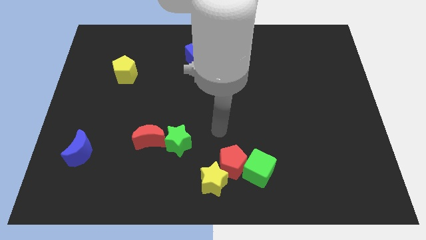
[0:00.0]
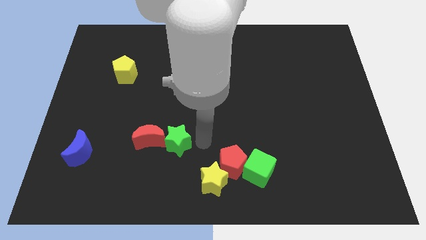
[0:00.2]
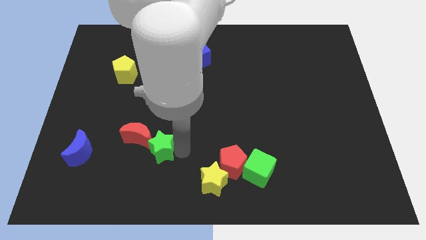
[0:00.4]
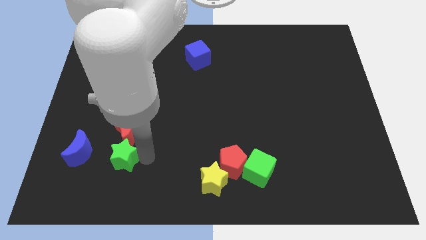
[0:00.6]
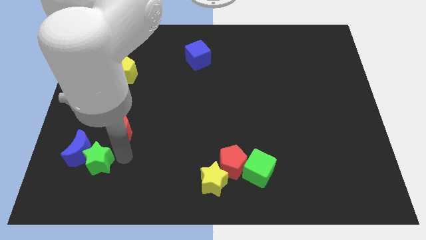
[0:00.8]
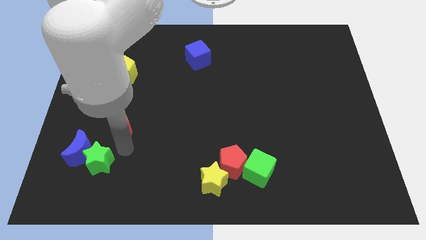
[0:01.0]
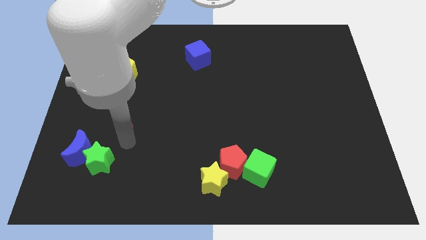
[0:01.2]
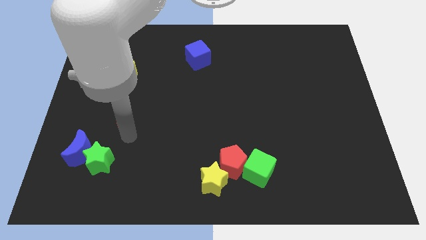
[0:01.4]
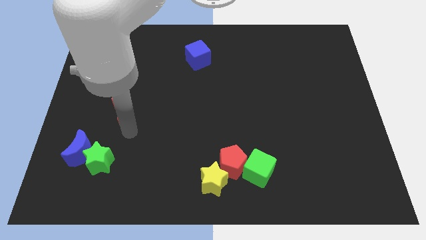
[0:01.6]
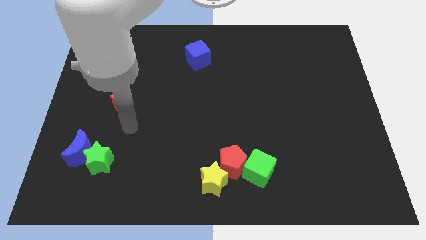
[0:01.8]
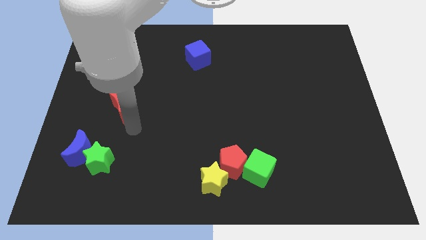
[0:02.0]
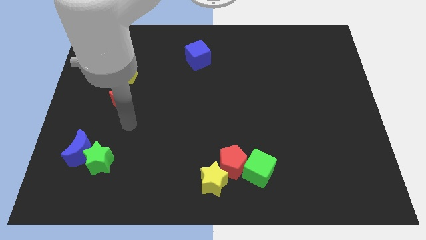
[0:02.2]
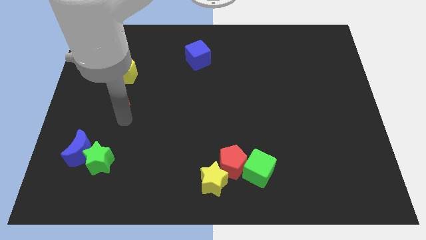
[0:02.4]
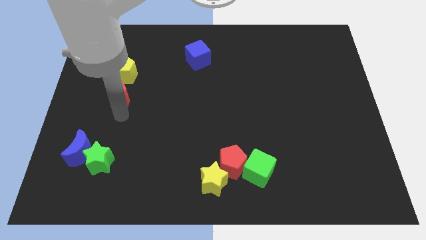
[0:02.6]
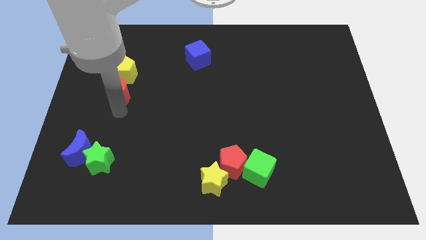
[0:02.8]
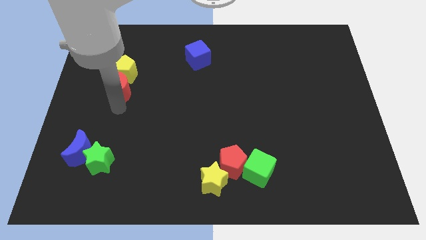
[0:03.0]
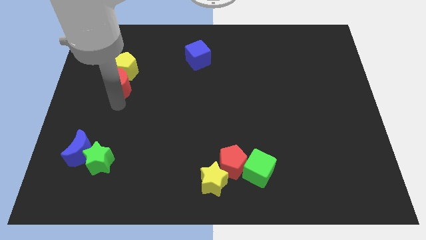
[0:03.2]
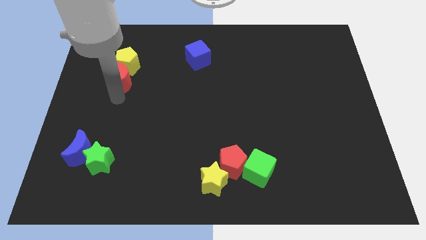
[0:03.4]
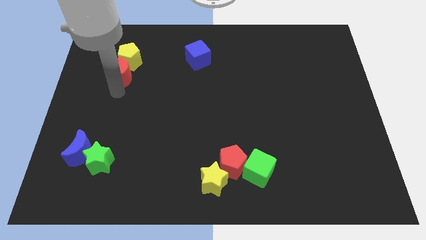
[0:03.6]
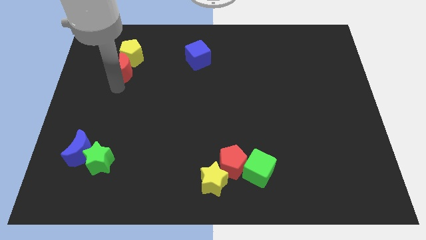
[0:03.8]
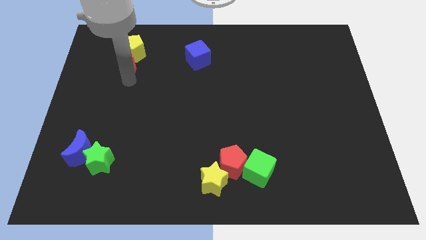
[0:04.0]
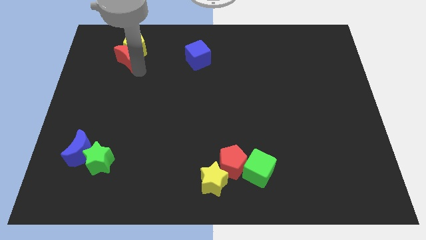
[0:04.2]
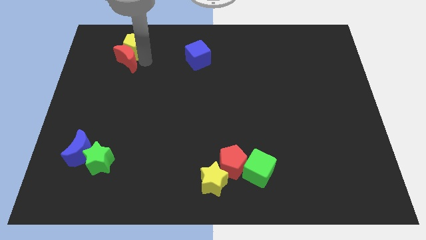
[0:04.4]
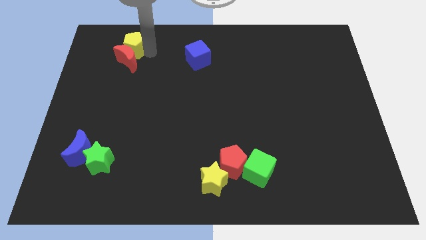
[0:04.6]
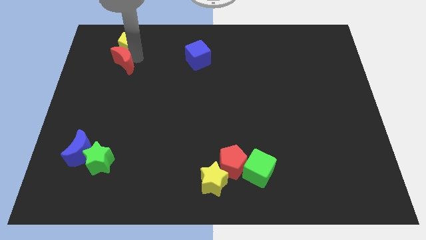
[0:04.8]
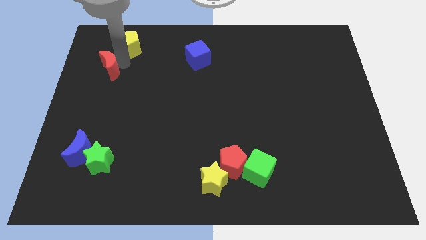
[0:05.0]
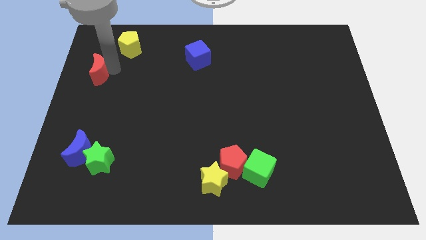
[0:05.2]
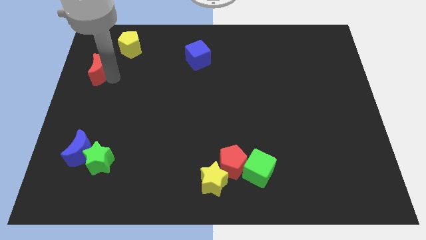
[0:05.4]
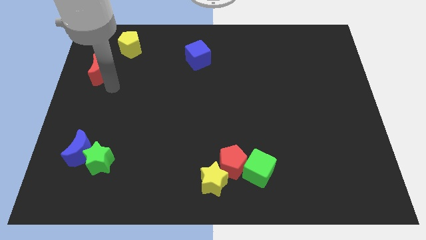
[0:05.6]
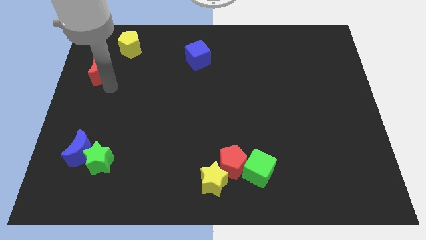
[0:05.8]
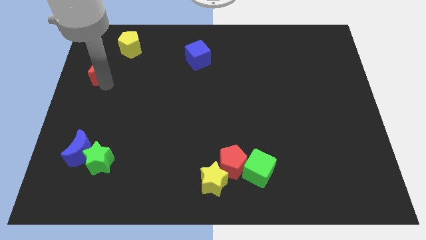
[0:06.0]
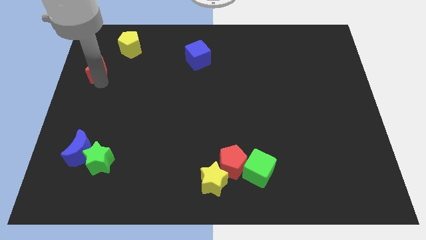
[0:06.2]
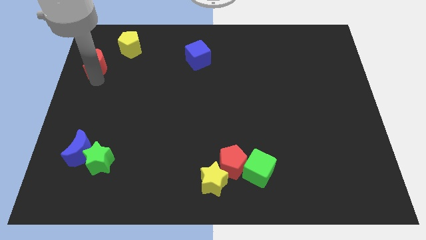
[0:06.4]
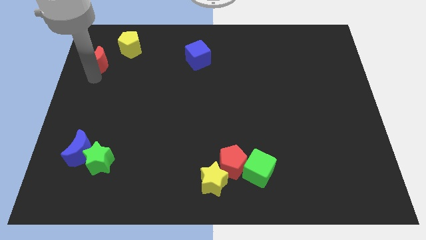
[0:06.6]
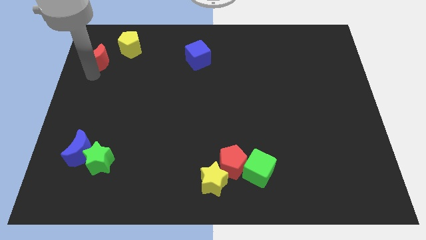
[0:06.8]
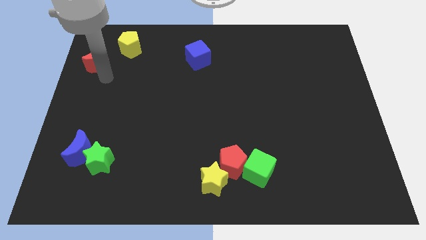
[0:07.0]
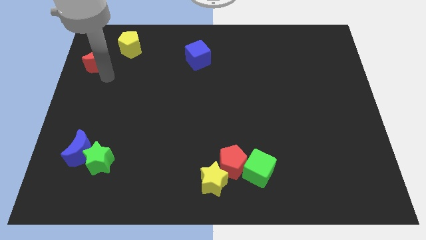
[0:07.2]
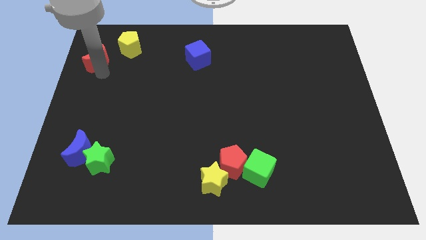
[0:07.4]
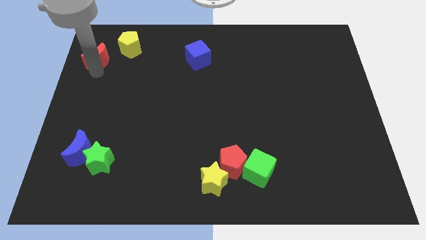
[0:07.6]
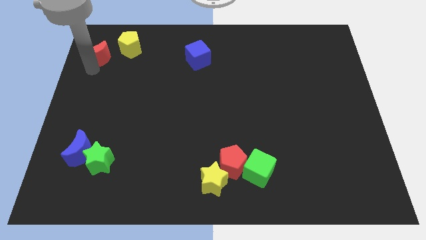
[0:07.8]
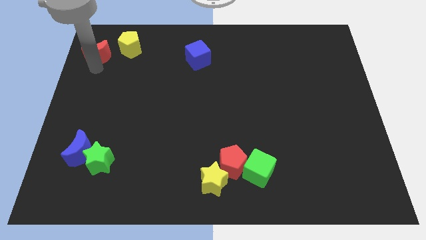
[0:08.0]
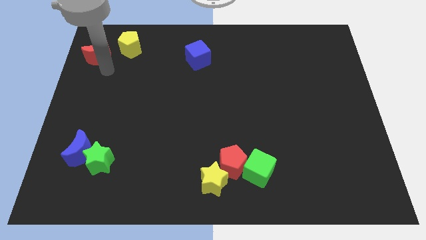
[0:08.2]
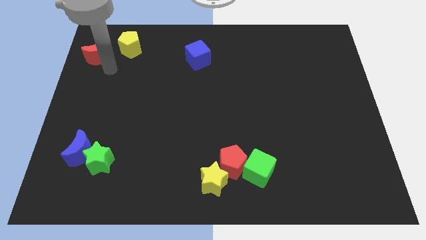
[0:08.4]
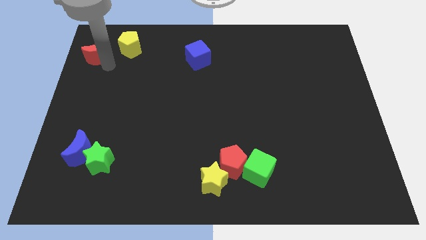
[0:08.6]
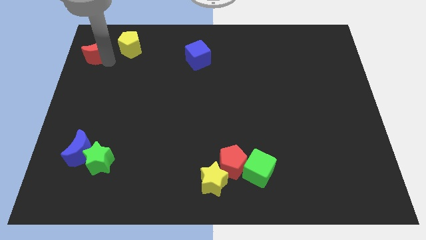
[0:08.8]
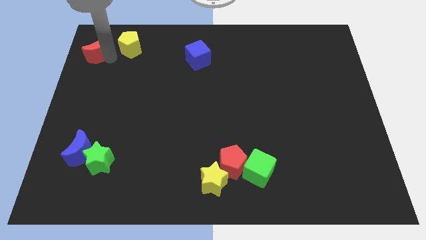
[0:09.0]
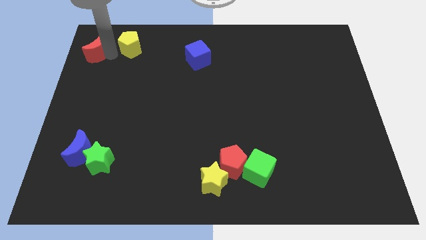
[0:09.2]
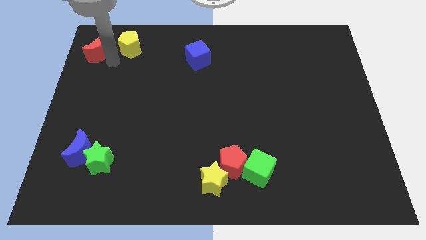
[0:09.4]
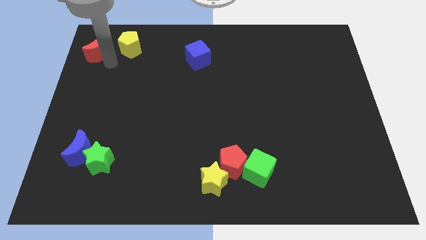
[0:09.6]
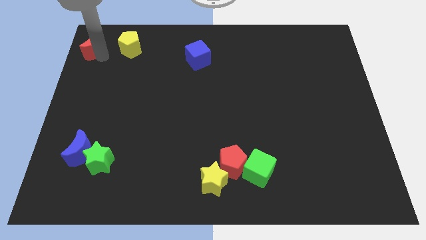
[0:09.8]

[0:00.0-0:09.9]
move the red moon to the top left of the board

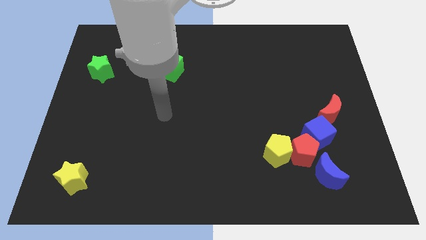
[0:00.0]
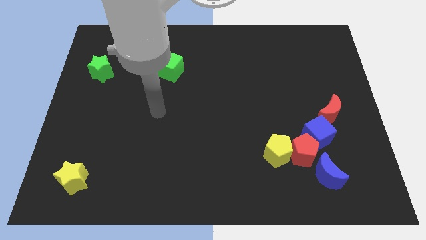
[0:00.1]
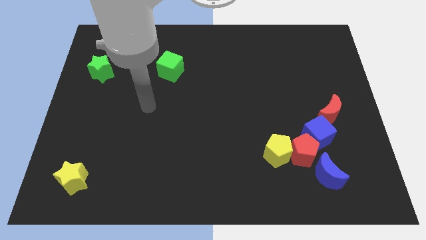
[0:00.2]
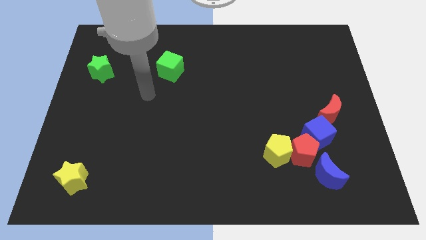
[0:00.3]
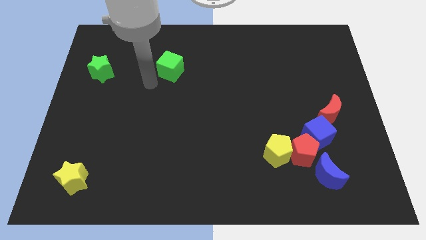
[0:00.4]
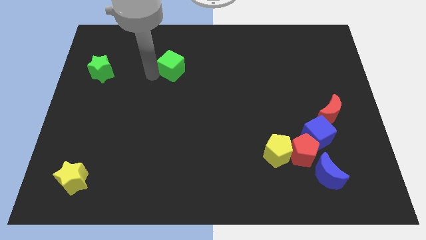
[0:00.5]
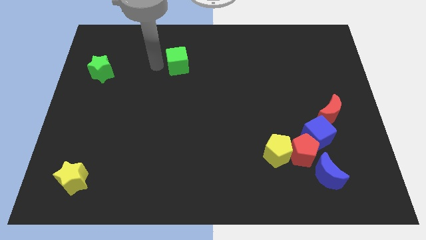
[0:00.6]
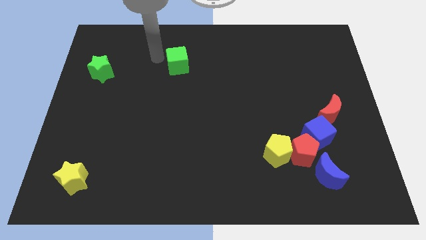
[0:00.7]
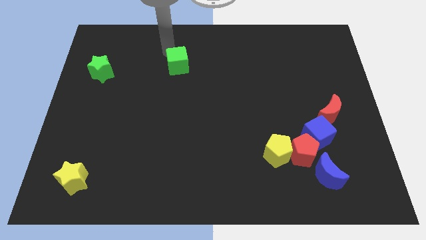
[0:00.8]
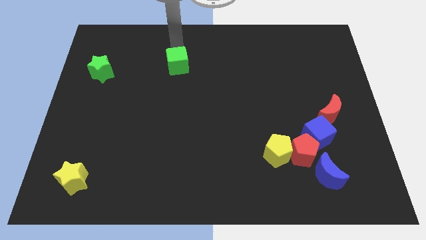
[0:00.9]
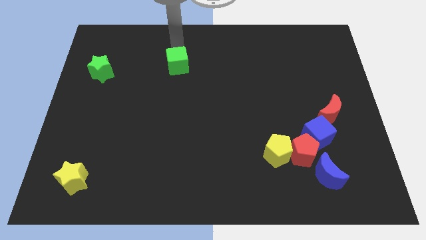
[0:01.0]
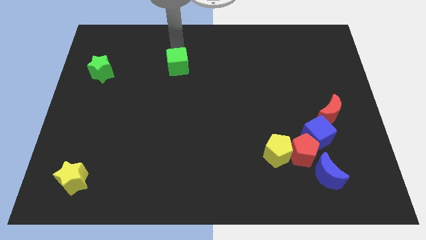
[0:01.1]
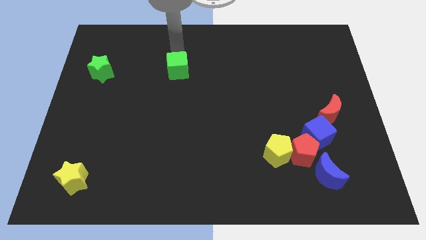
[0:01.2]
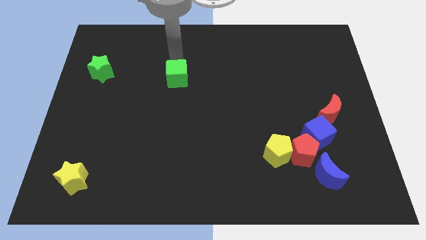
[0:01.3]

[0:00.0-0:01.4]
move the green cube to the center of the board

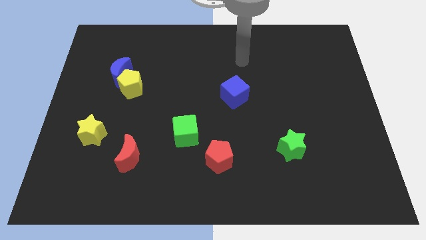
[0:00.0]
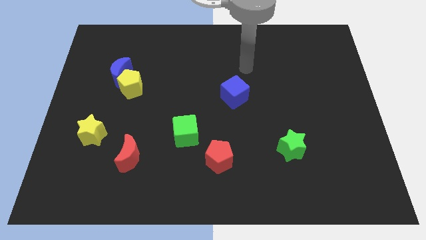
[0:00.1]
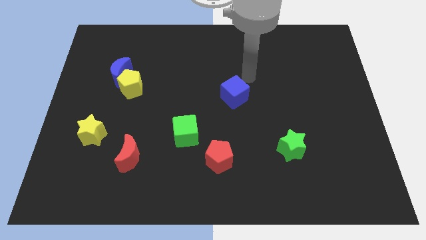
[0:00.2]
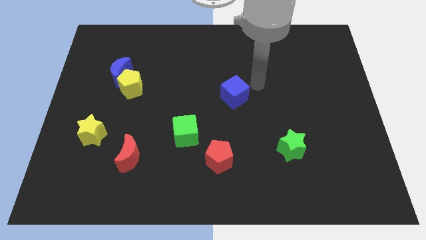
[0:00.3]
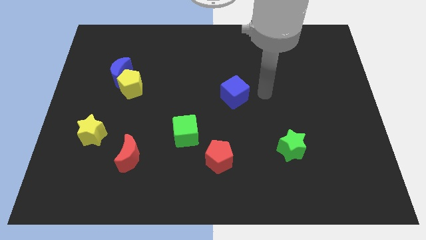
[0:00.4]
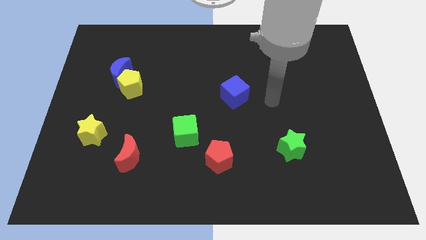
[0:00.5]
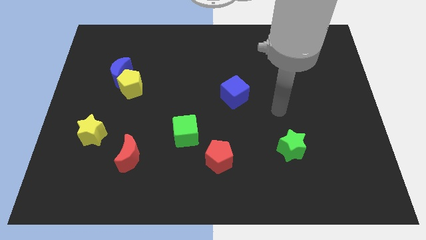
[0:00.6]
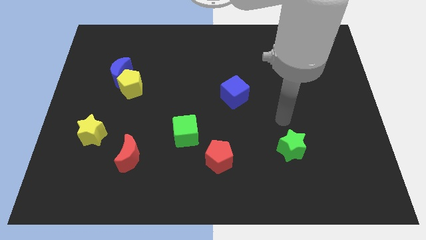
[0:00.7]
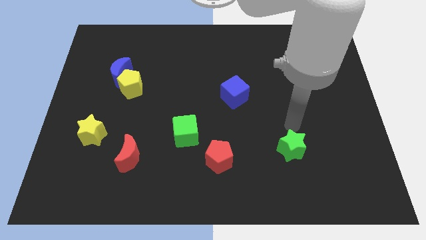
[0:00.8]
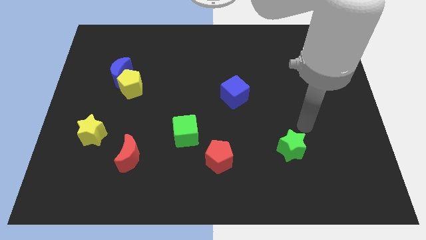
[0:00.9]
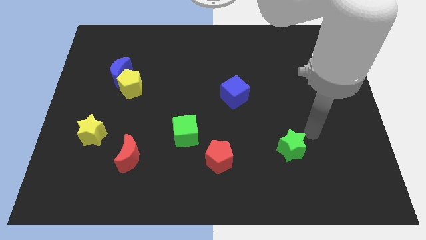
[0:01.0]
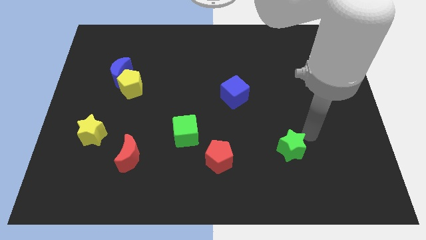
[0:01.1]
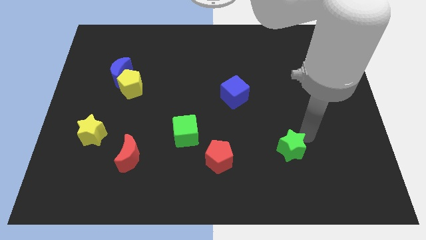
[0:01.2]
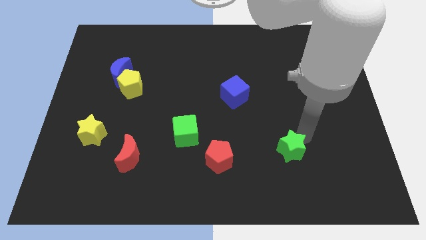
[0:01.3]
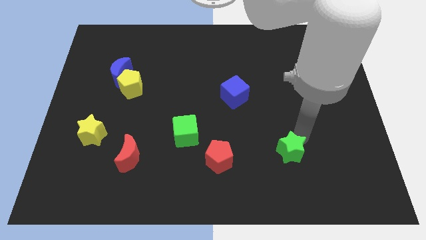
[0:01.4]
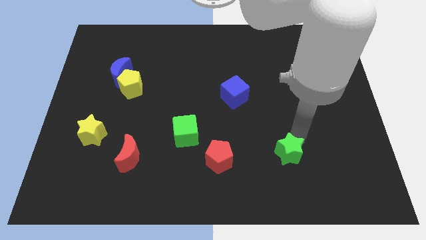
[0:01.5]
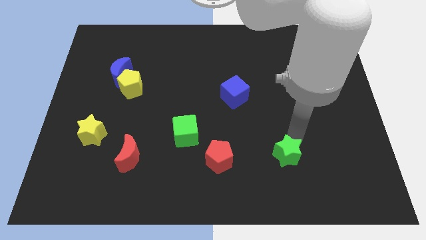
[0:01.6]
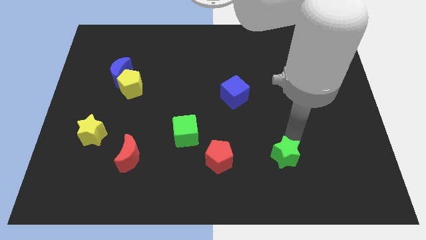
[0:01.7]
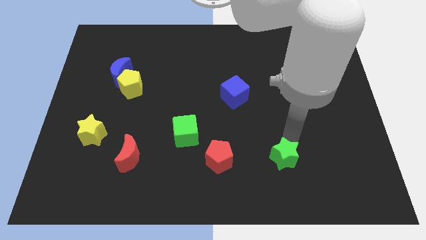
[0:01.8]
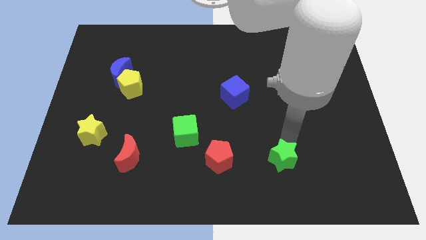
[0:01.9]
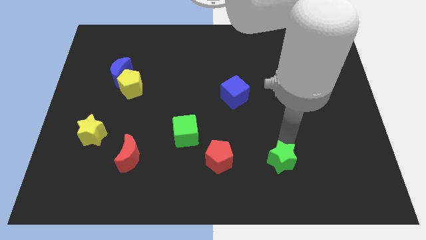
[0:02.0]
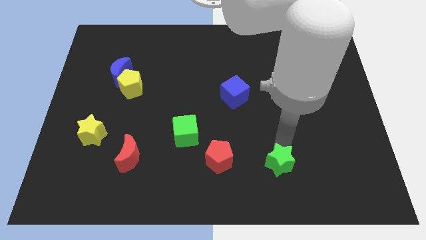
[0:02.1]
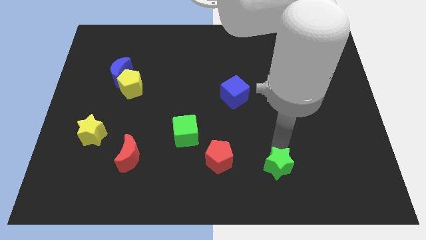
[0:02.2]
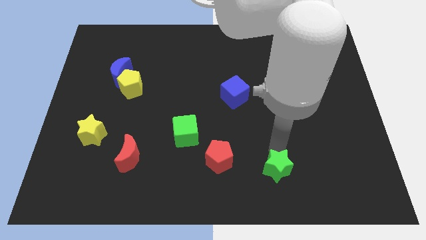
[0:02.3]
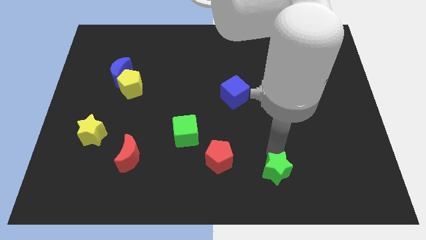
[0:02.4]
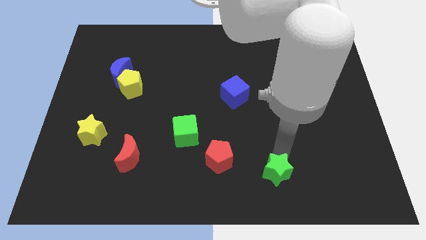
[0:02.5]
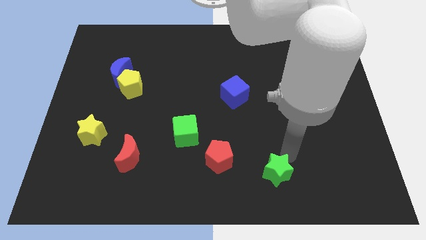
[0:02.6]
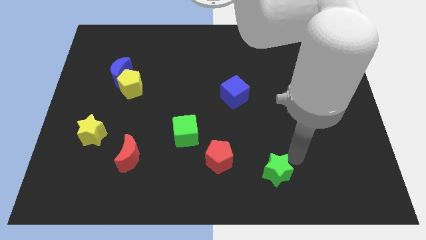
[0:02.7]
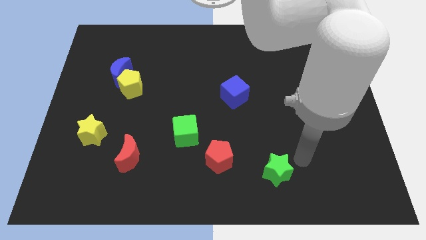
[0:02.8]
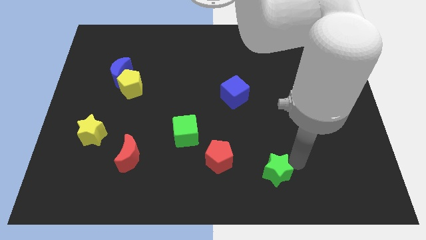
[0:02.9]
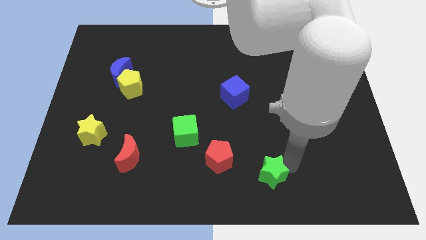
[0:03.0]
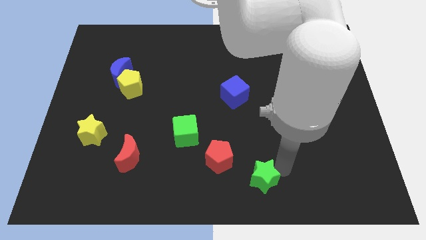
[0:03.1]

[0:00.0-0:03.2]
move the green star to the bottom
